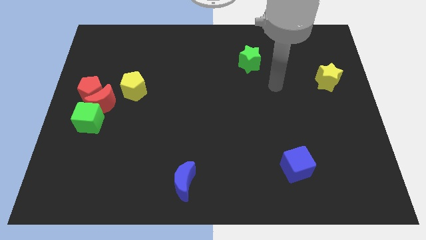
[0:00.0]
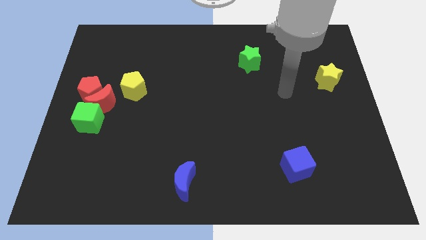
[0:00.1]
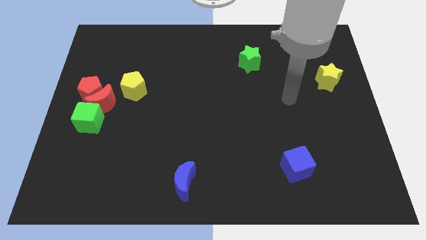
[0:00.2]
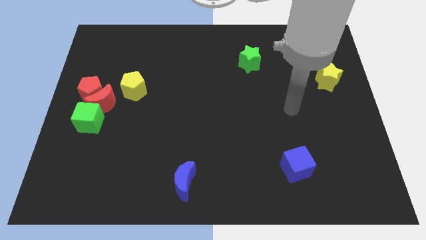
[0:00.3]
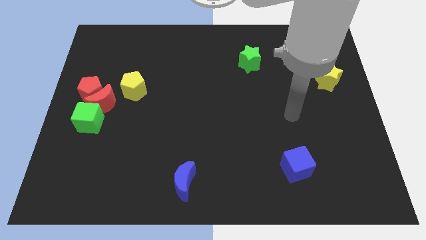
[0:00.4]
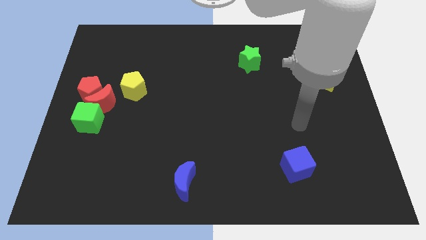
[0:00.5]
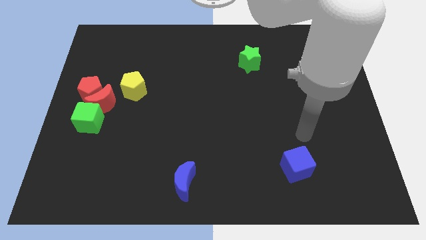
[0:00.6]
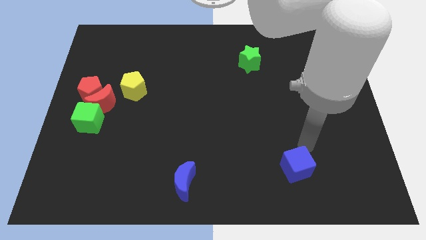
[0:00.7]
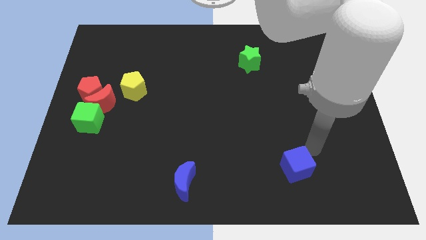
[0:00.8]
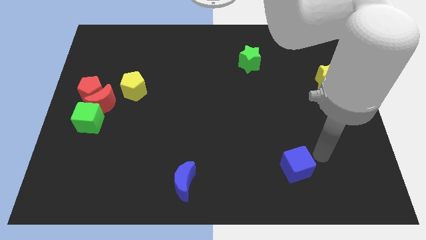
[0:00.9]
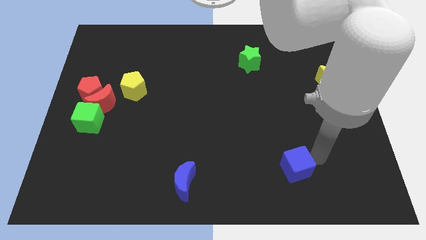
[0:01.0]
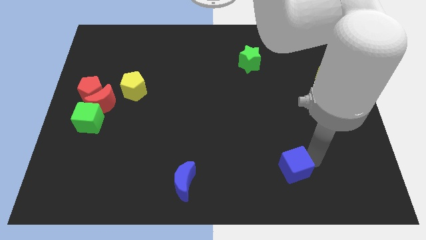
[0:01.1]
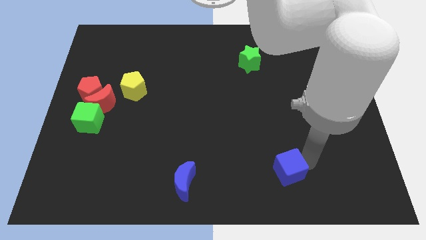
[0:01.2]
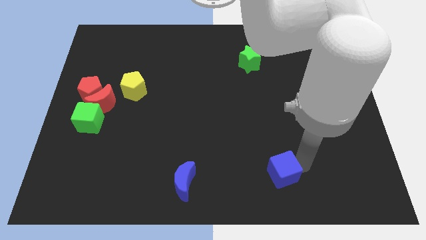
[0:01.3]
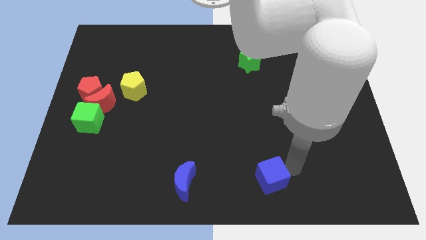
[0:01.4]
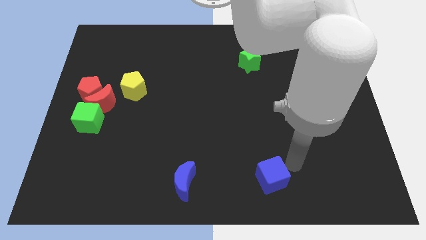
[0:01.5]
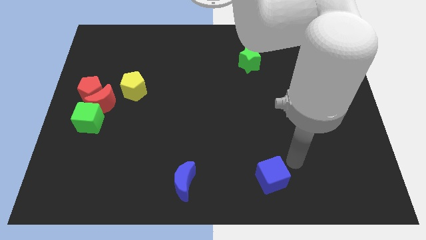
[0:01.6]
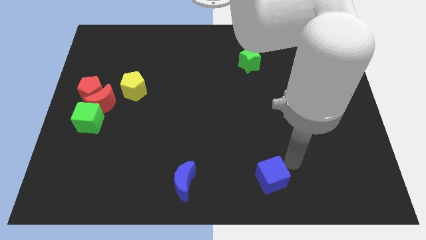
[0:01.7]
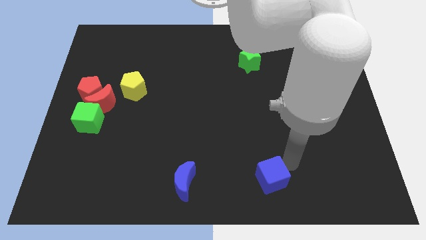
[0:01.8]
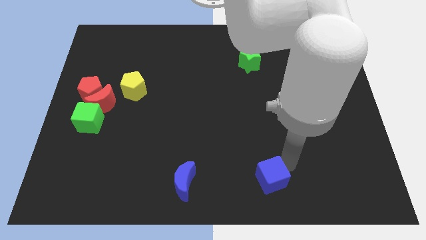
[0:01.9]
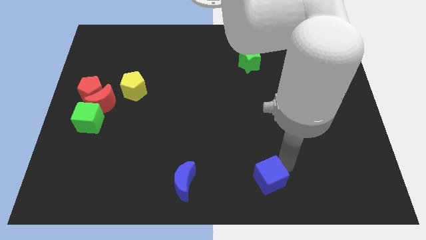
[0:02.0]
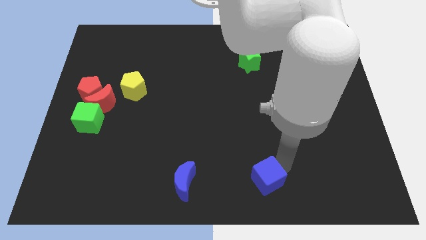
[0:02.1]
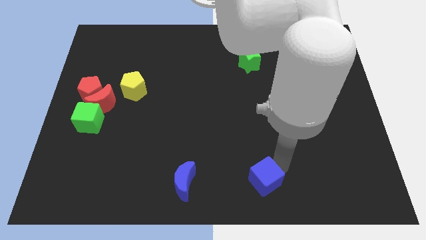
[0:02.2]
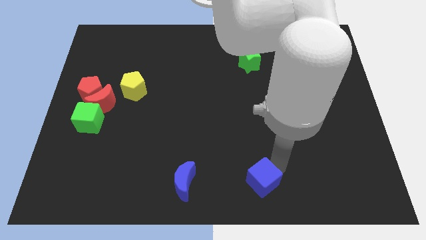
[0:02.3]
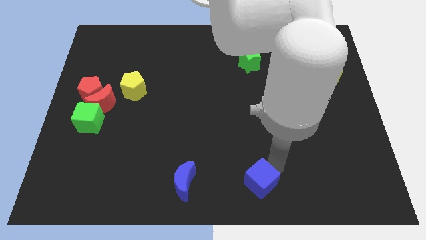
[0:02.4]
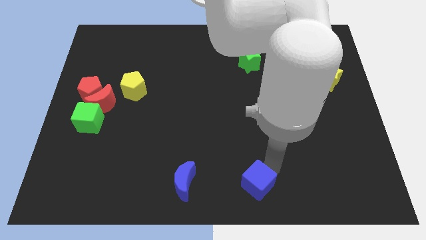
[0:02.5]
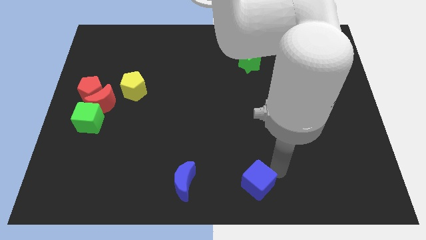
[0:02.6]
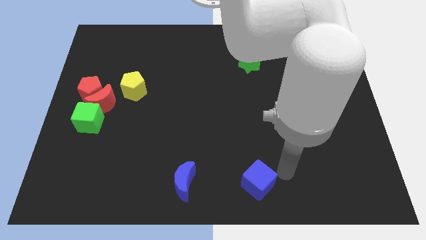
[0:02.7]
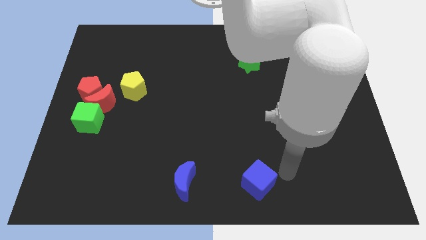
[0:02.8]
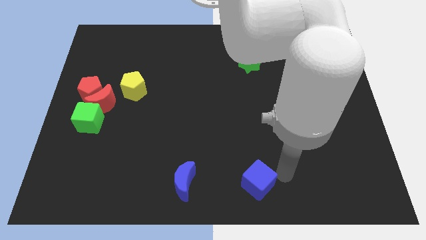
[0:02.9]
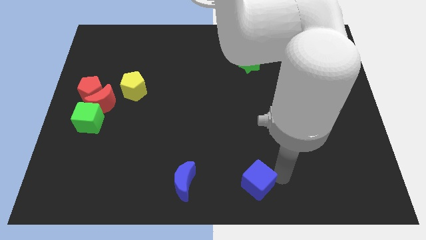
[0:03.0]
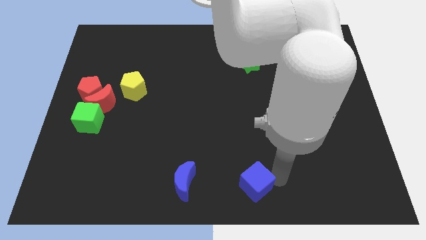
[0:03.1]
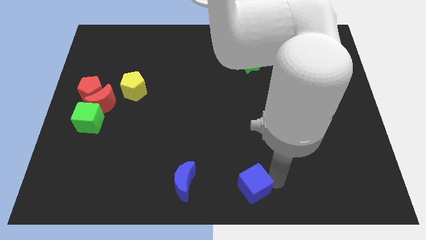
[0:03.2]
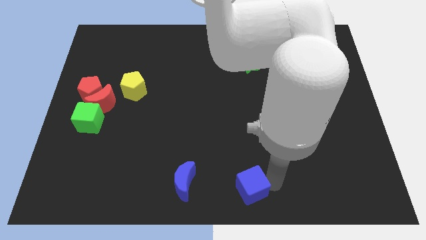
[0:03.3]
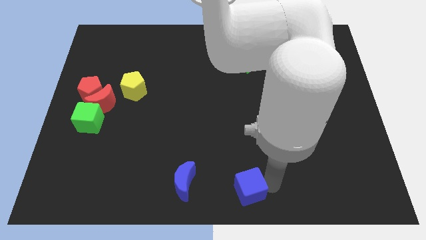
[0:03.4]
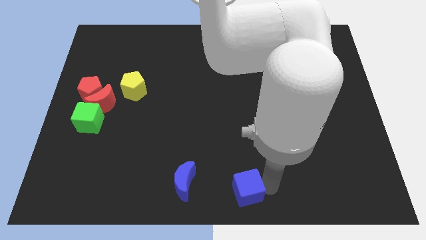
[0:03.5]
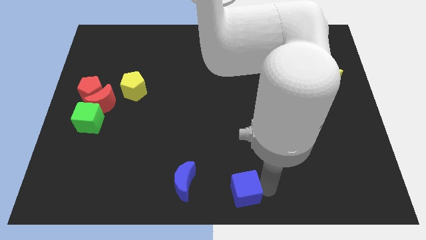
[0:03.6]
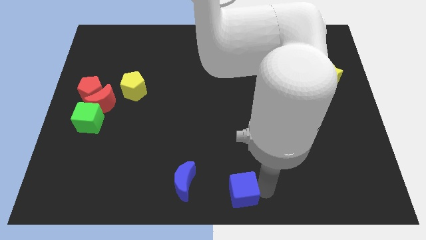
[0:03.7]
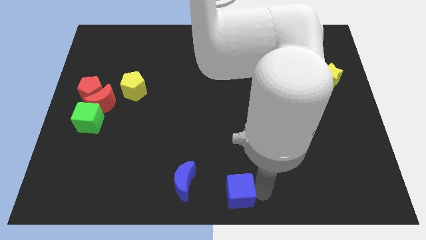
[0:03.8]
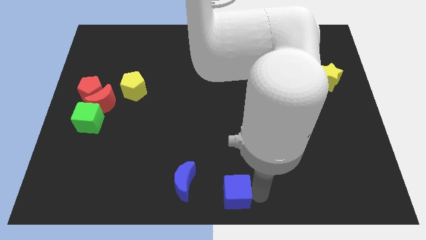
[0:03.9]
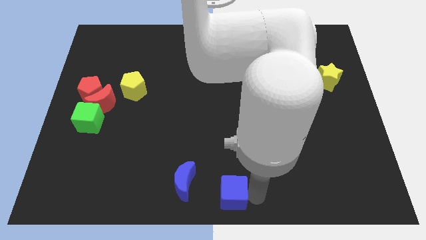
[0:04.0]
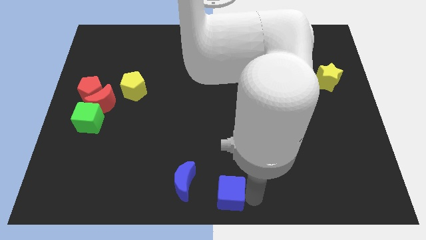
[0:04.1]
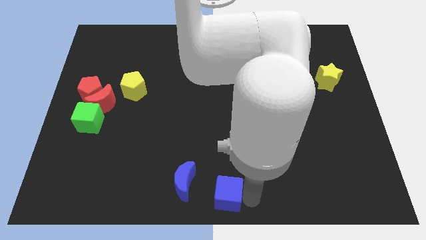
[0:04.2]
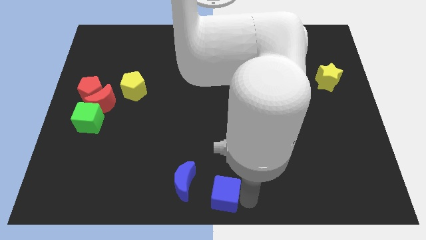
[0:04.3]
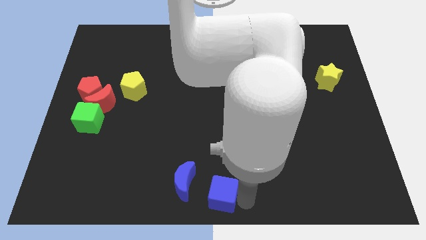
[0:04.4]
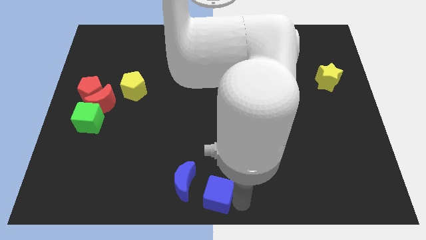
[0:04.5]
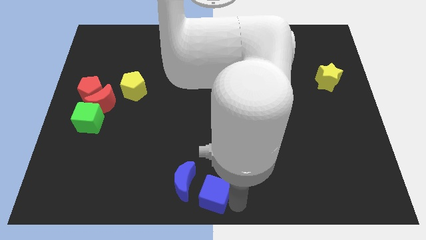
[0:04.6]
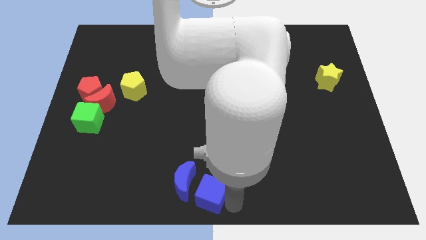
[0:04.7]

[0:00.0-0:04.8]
slide the blue cube to the blue moon

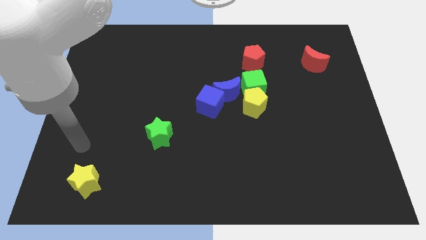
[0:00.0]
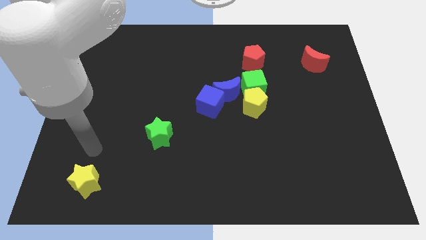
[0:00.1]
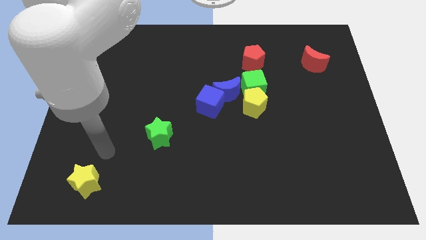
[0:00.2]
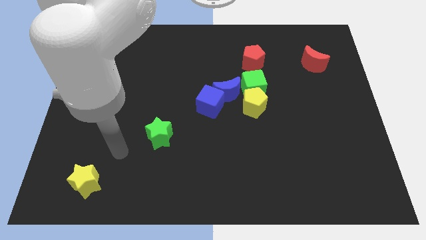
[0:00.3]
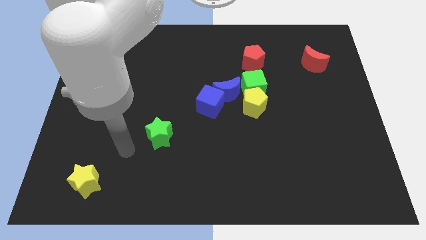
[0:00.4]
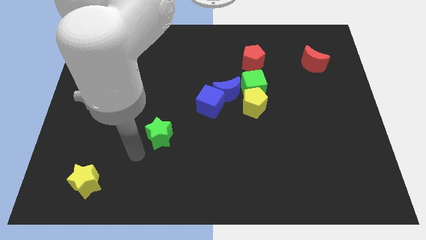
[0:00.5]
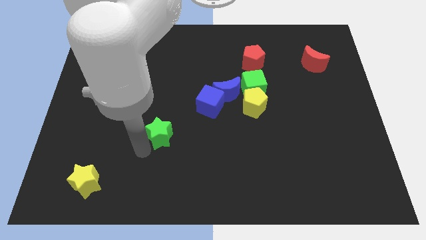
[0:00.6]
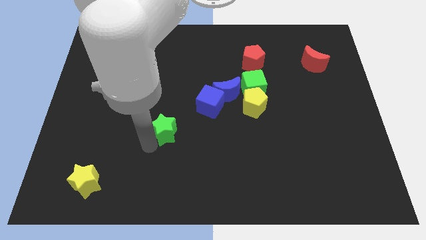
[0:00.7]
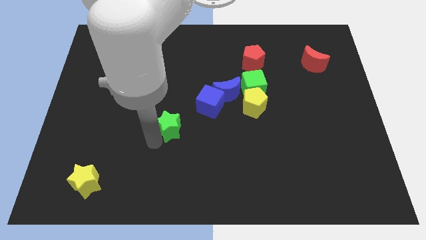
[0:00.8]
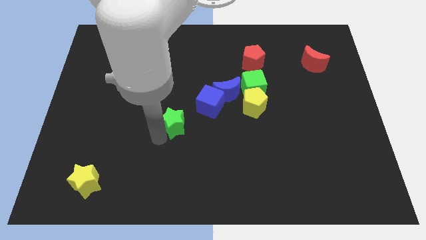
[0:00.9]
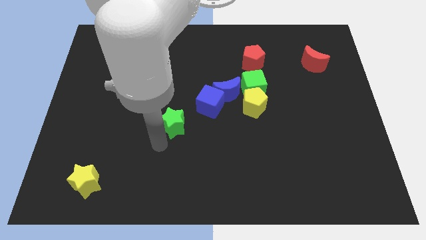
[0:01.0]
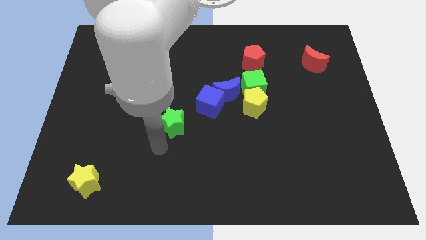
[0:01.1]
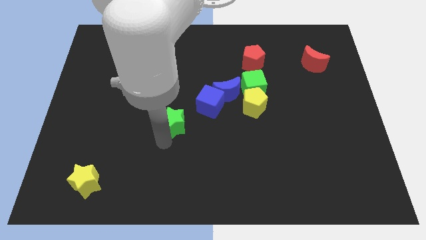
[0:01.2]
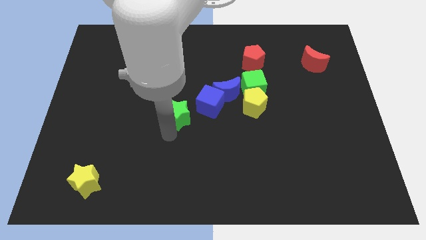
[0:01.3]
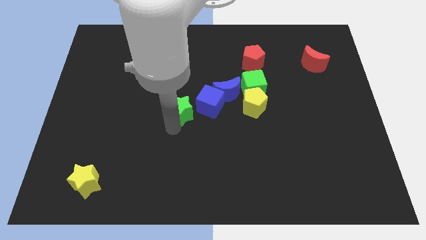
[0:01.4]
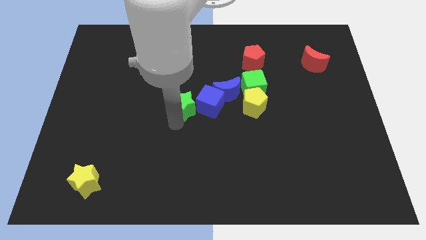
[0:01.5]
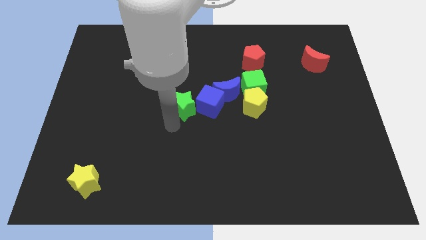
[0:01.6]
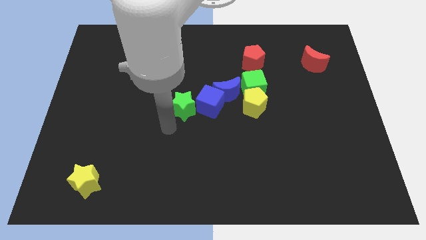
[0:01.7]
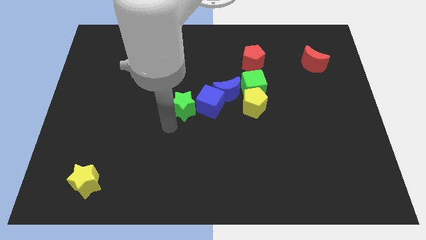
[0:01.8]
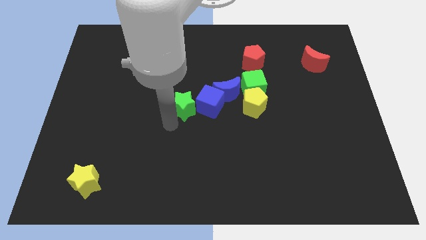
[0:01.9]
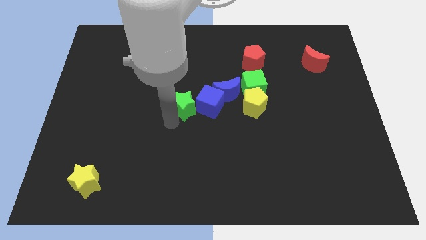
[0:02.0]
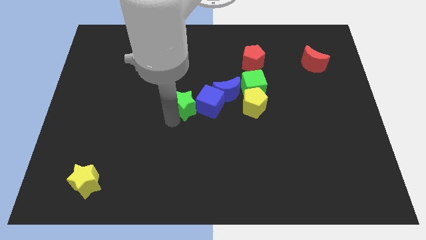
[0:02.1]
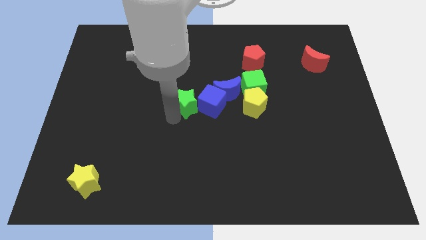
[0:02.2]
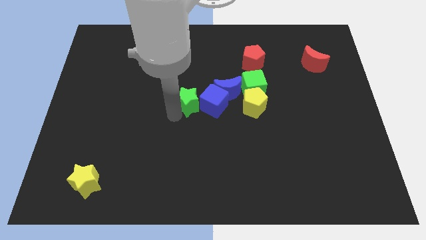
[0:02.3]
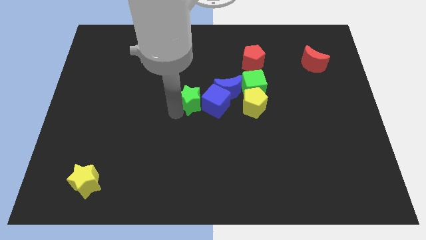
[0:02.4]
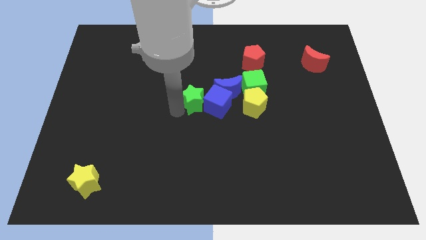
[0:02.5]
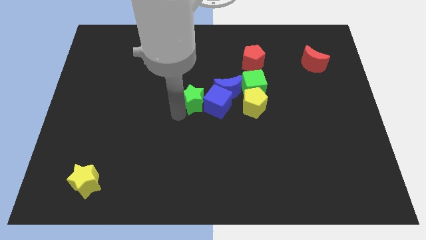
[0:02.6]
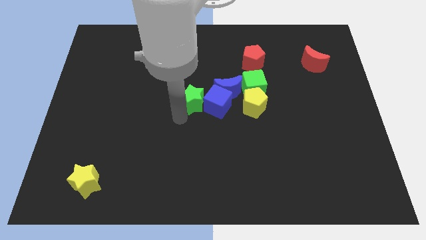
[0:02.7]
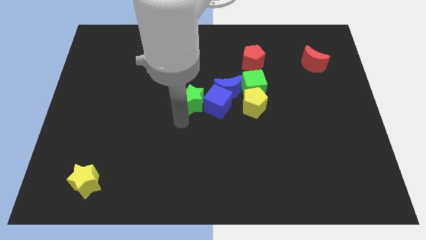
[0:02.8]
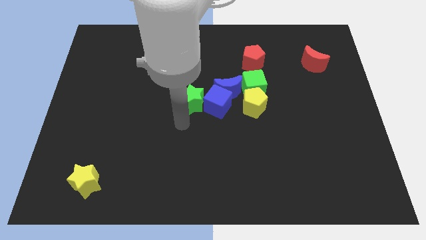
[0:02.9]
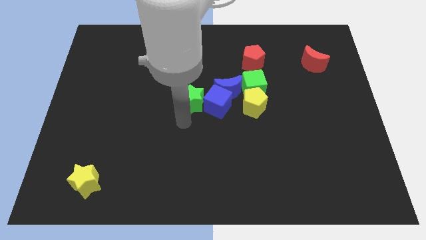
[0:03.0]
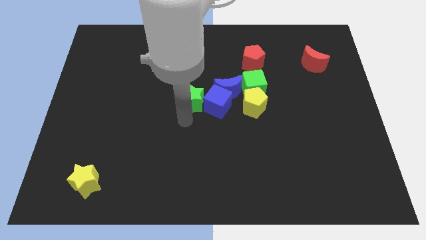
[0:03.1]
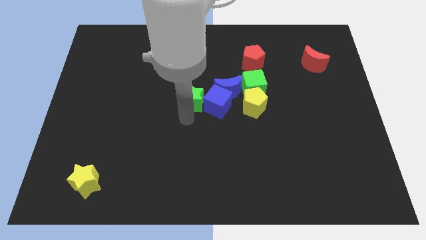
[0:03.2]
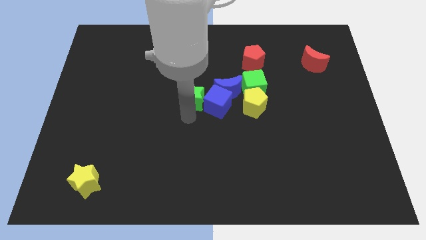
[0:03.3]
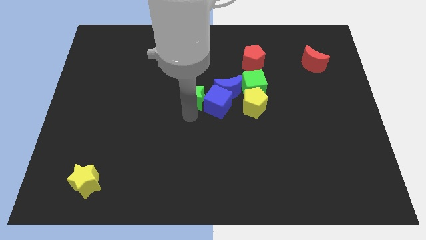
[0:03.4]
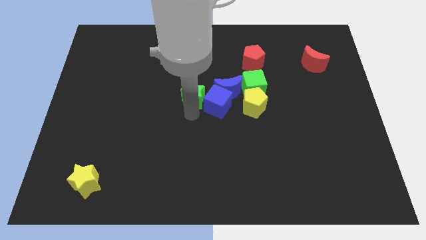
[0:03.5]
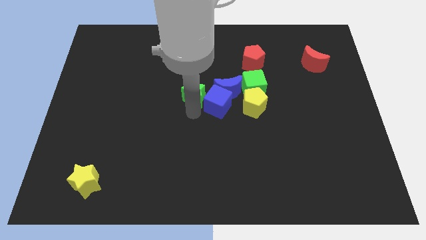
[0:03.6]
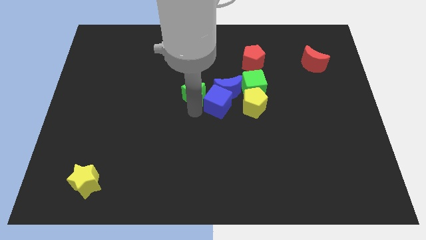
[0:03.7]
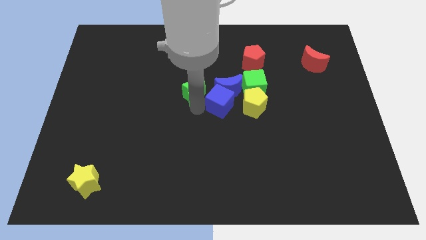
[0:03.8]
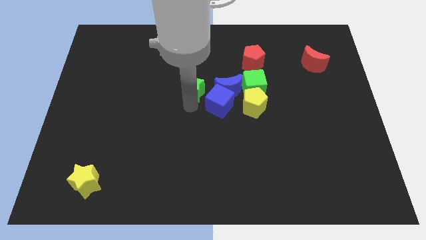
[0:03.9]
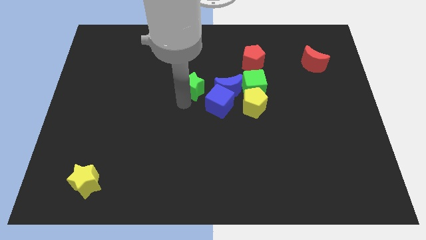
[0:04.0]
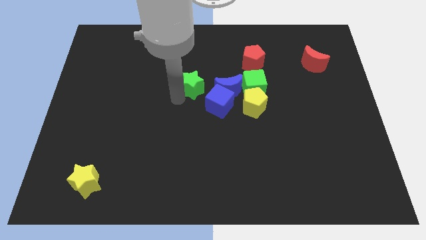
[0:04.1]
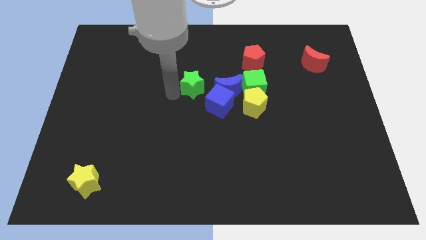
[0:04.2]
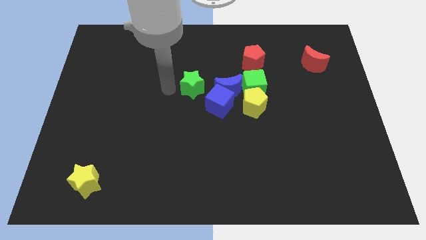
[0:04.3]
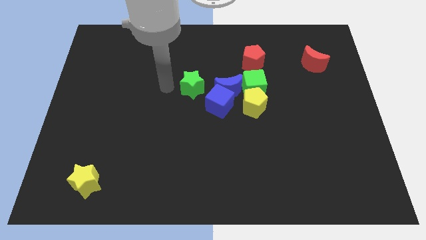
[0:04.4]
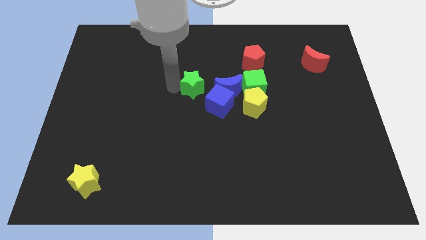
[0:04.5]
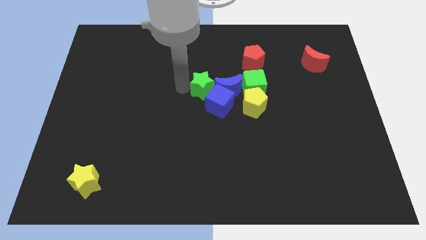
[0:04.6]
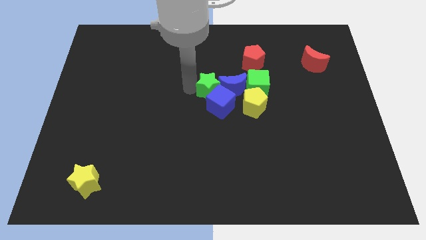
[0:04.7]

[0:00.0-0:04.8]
push the green star towards the blue moon
